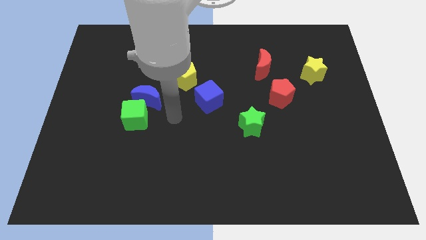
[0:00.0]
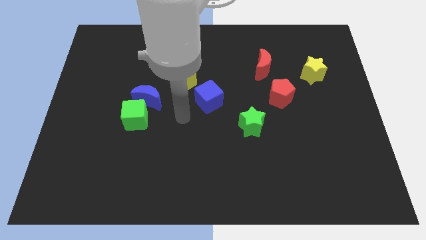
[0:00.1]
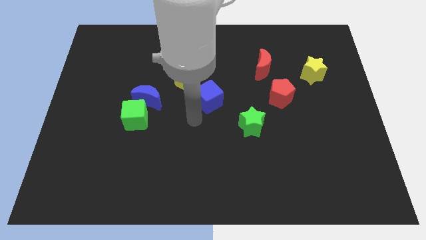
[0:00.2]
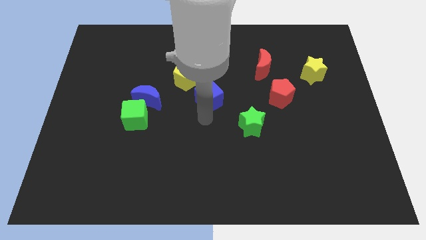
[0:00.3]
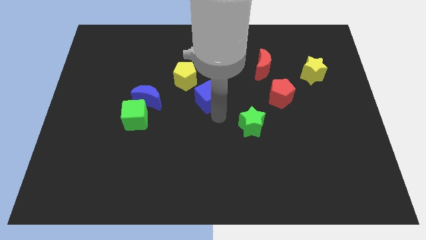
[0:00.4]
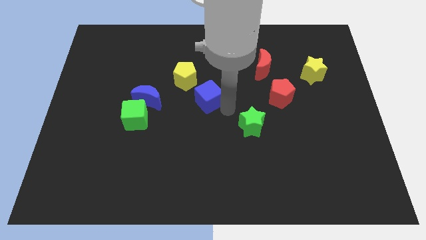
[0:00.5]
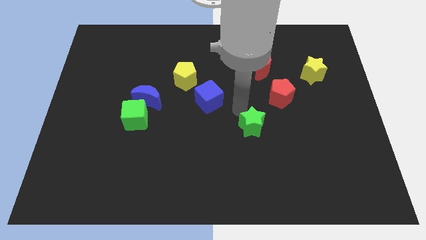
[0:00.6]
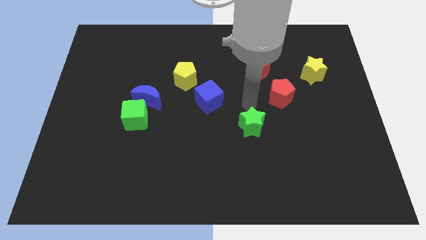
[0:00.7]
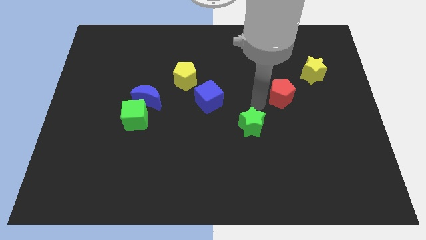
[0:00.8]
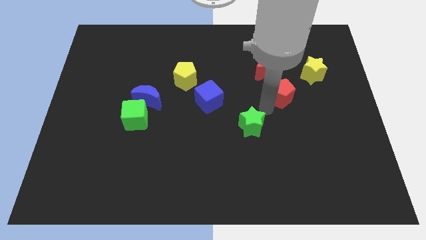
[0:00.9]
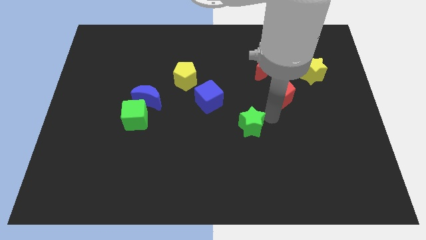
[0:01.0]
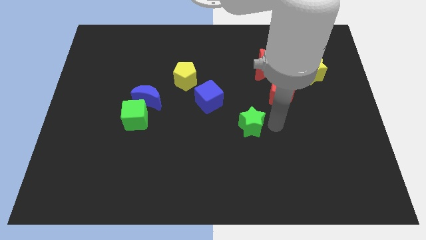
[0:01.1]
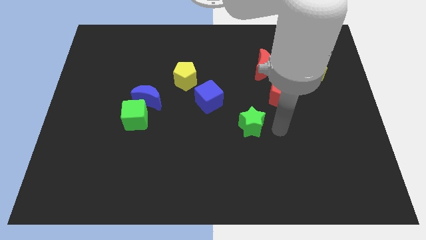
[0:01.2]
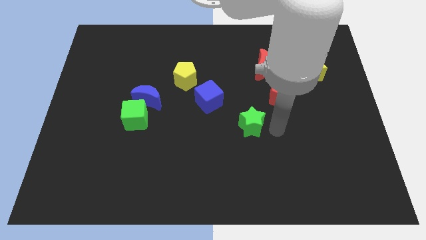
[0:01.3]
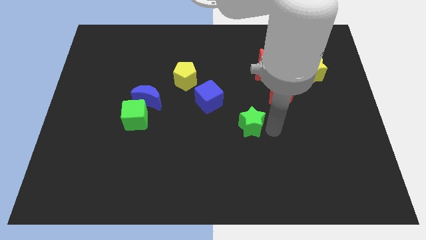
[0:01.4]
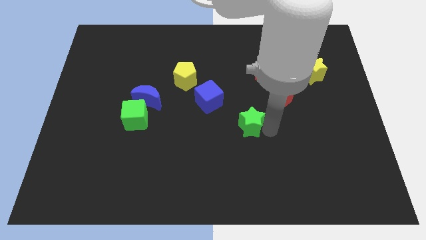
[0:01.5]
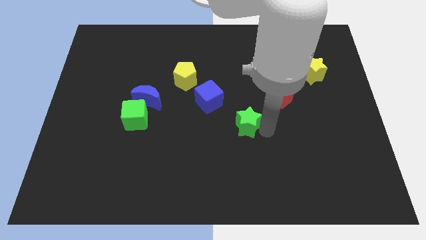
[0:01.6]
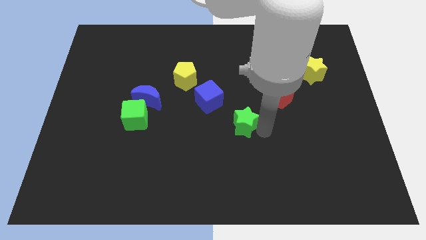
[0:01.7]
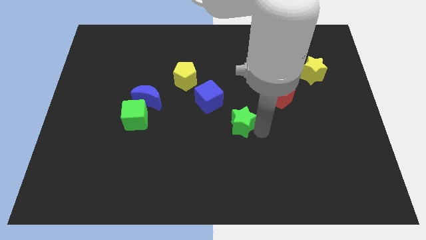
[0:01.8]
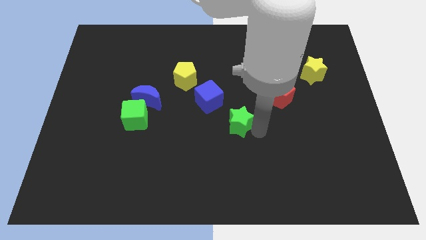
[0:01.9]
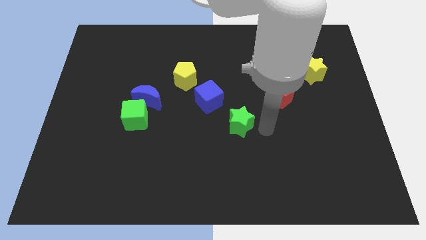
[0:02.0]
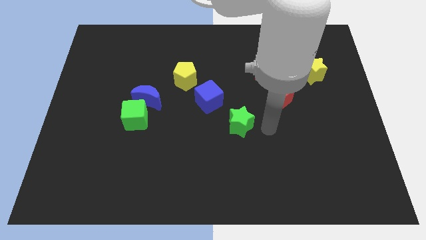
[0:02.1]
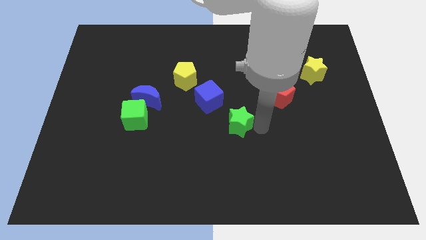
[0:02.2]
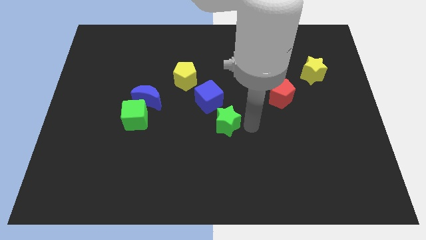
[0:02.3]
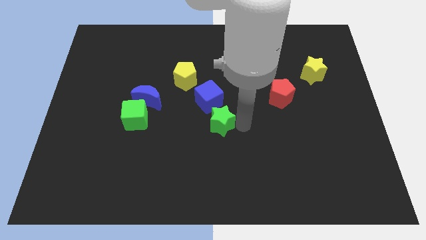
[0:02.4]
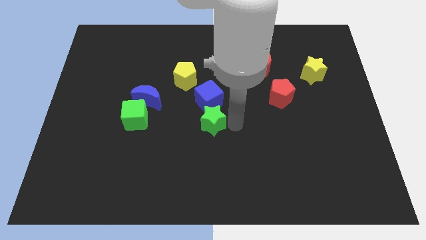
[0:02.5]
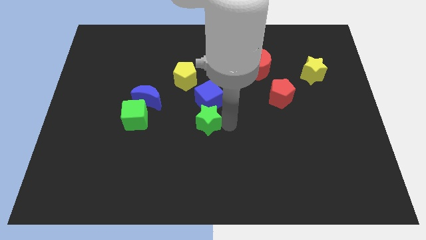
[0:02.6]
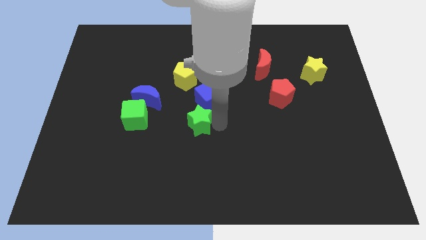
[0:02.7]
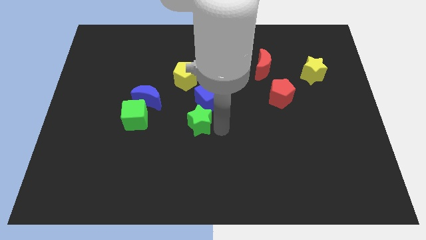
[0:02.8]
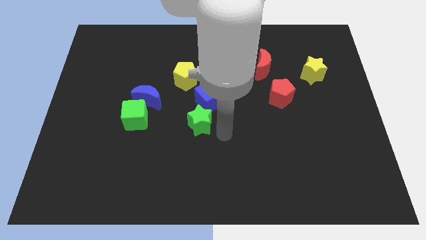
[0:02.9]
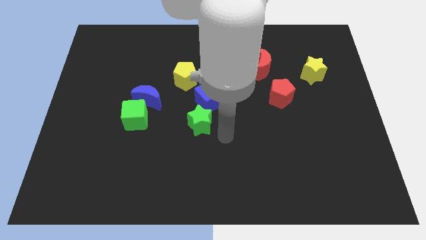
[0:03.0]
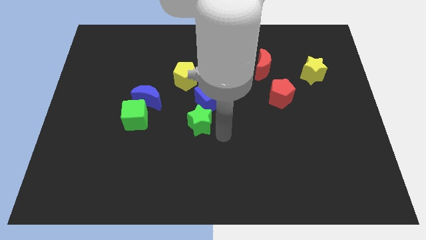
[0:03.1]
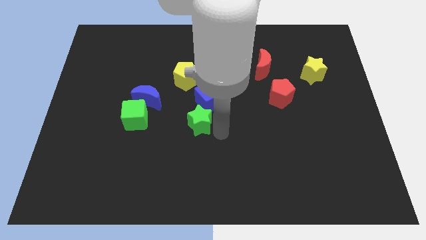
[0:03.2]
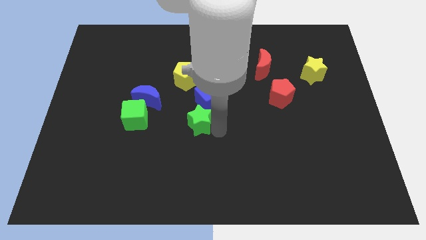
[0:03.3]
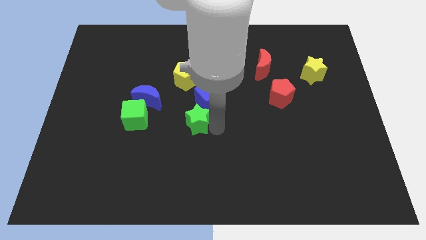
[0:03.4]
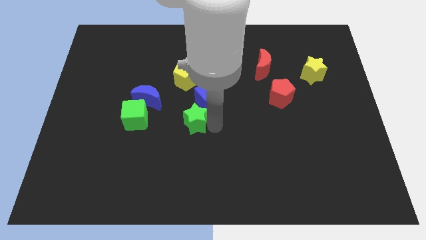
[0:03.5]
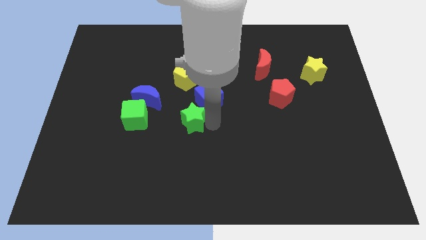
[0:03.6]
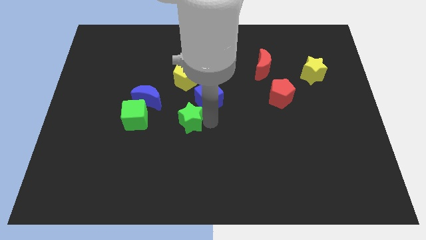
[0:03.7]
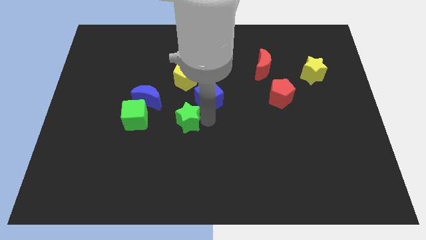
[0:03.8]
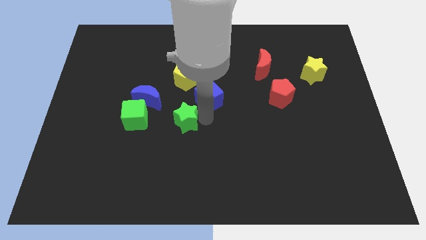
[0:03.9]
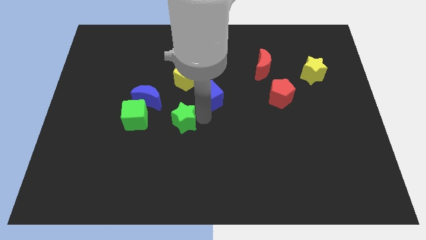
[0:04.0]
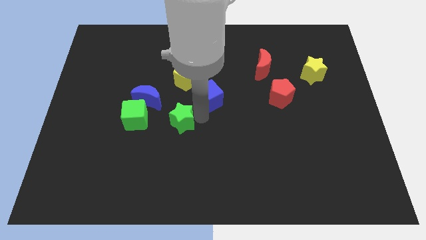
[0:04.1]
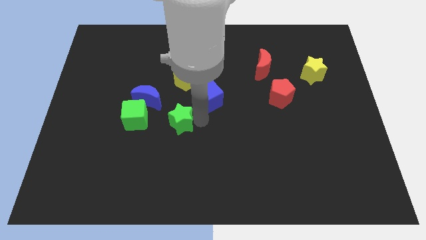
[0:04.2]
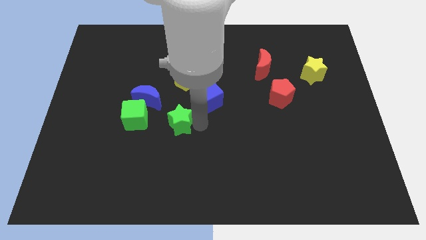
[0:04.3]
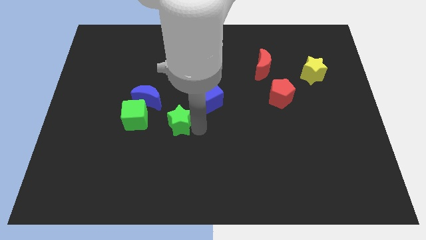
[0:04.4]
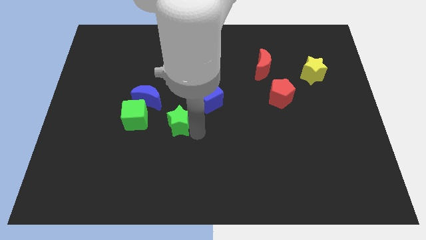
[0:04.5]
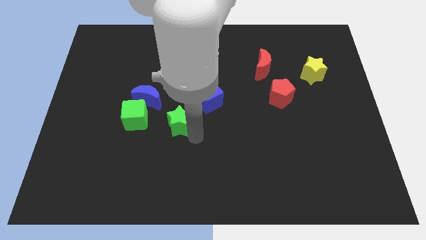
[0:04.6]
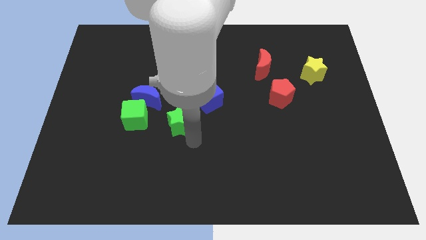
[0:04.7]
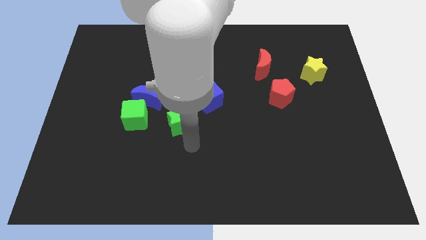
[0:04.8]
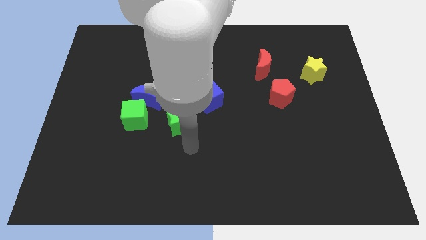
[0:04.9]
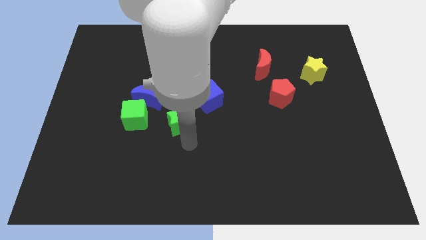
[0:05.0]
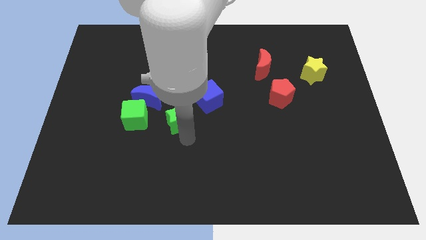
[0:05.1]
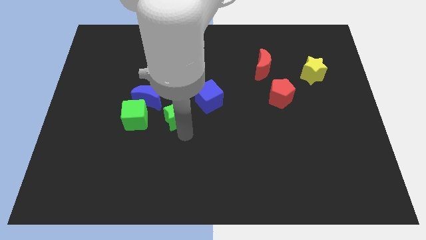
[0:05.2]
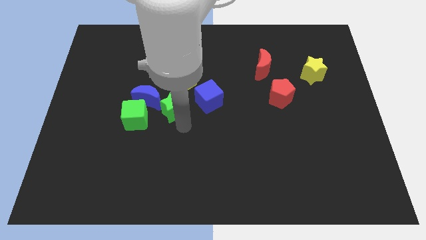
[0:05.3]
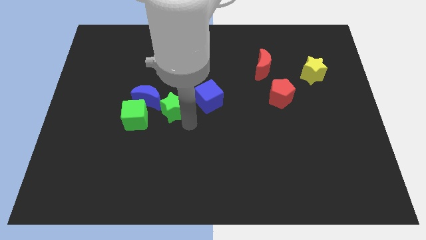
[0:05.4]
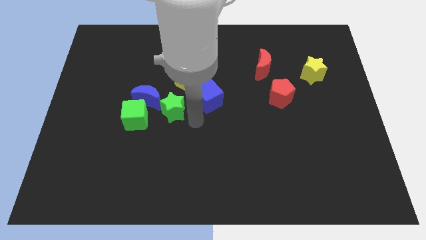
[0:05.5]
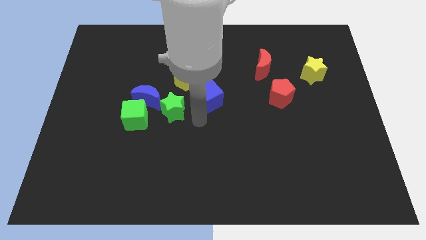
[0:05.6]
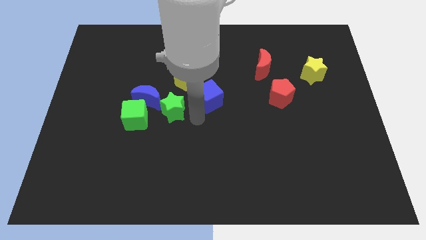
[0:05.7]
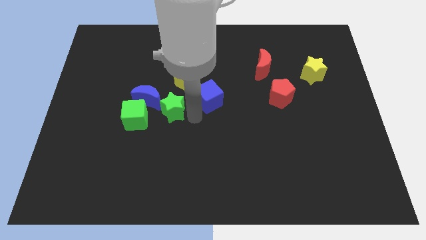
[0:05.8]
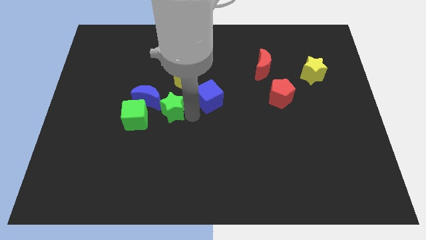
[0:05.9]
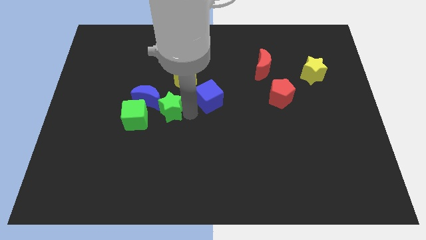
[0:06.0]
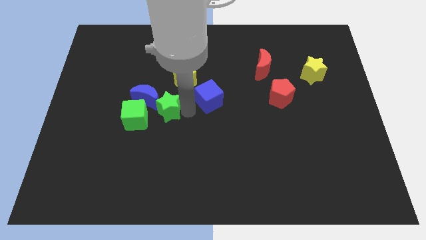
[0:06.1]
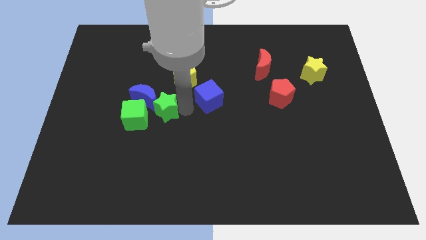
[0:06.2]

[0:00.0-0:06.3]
put the green star to the blue moon

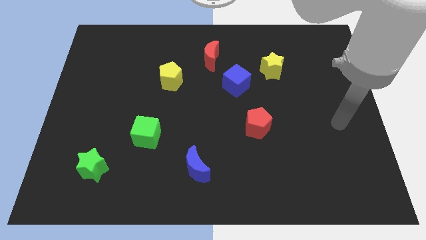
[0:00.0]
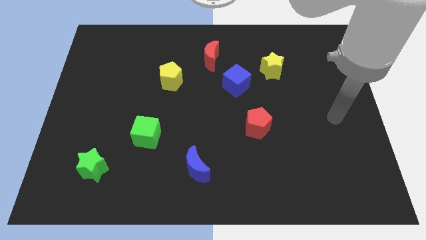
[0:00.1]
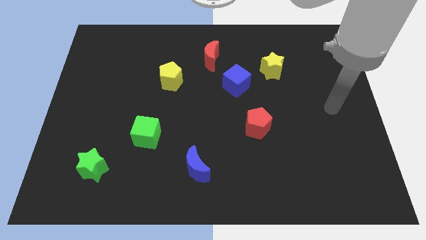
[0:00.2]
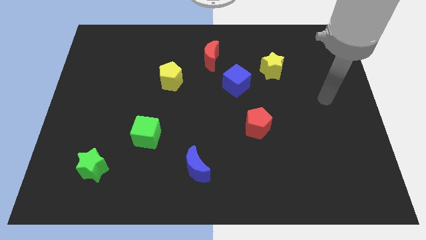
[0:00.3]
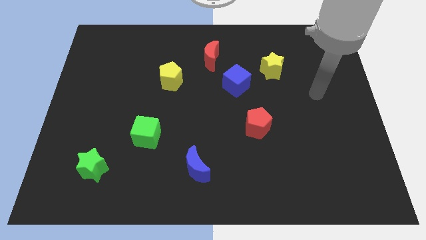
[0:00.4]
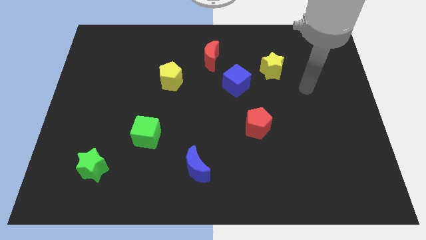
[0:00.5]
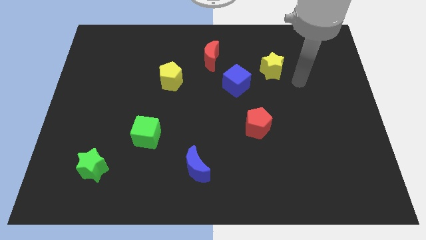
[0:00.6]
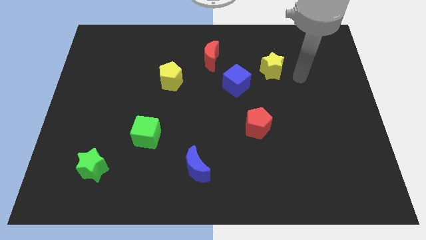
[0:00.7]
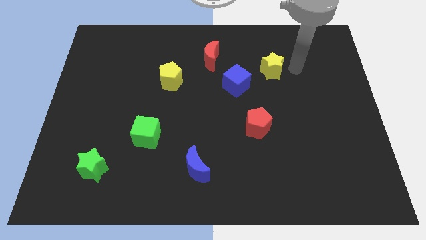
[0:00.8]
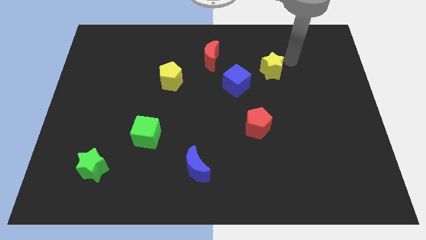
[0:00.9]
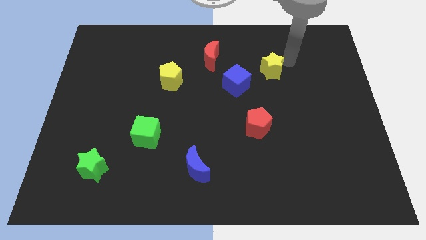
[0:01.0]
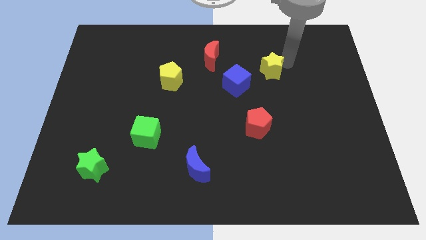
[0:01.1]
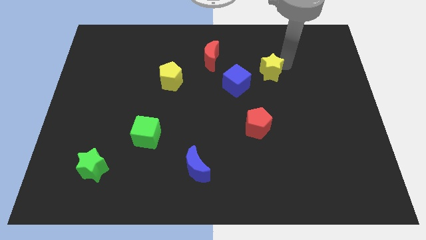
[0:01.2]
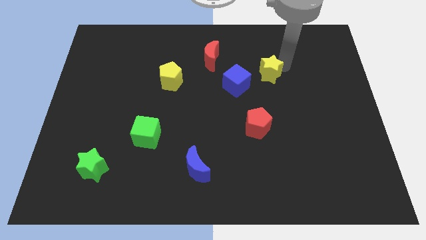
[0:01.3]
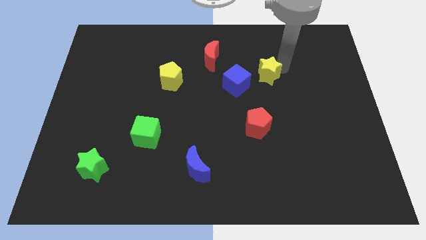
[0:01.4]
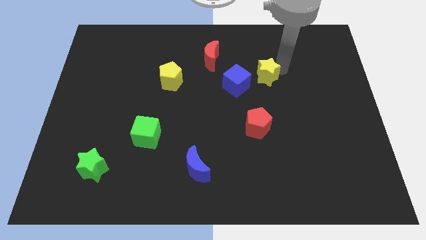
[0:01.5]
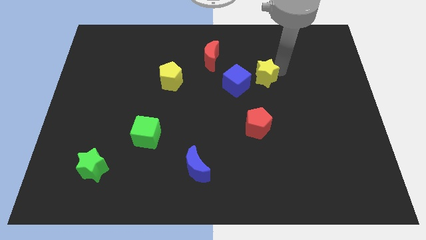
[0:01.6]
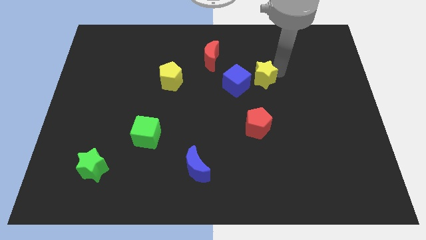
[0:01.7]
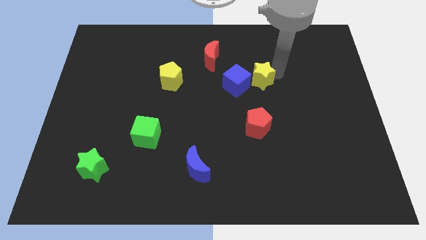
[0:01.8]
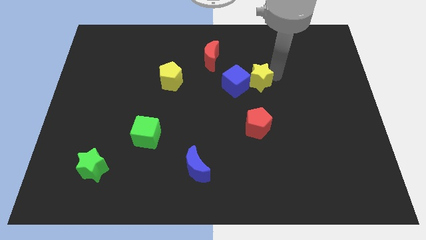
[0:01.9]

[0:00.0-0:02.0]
put the yellow star towards the blue cube
